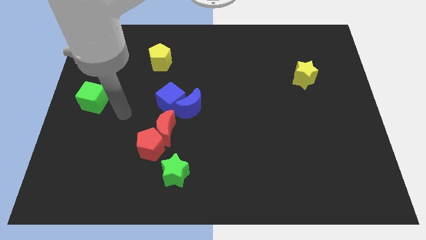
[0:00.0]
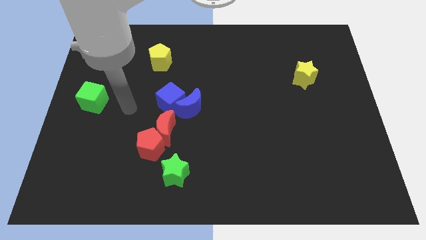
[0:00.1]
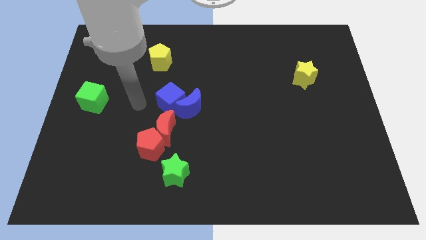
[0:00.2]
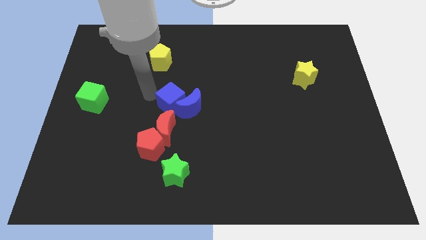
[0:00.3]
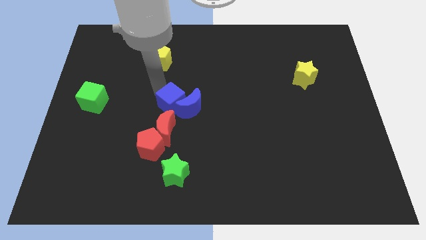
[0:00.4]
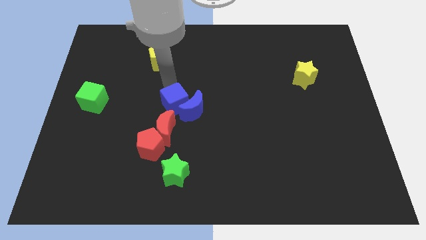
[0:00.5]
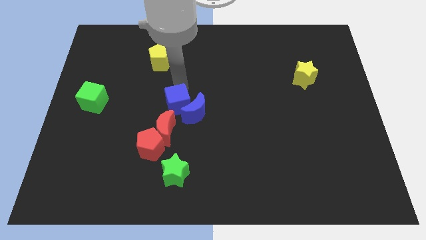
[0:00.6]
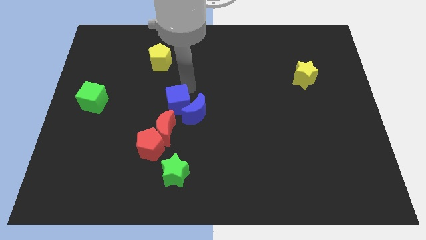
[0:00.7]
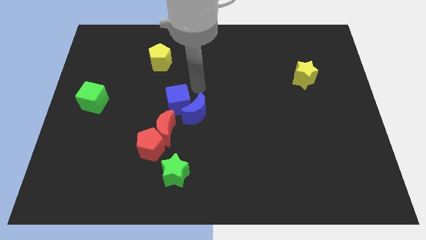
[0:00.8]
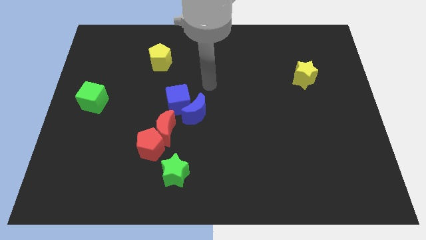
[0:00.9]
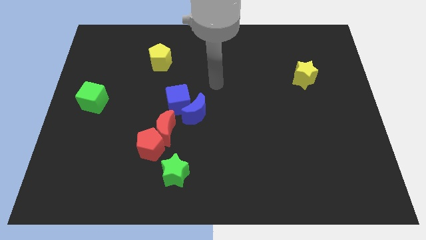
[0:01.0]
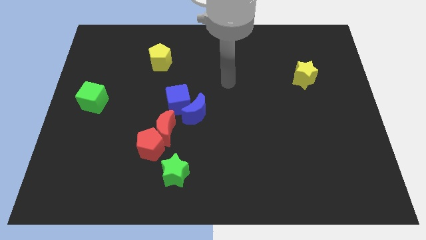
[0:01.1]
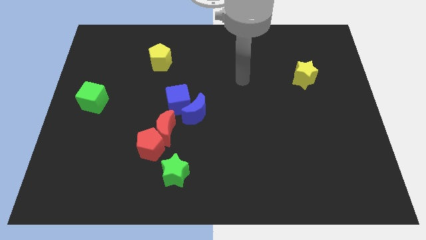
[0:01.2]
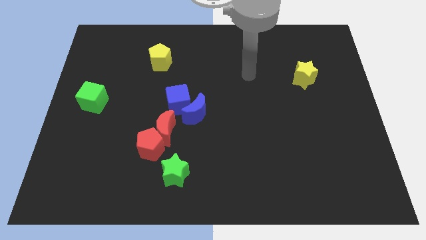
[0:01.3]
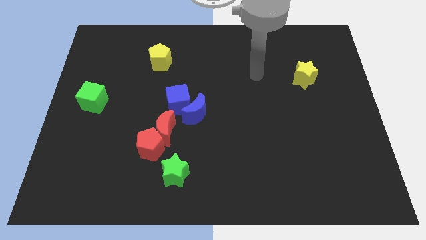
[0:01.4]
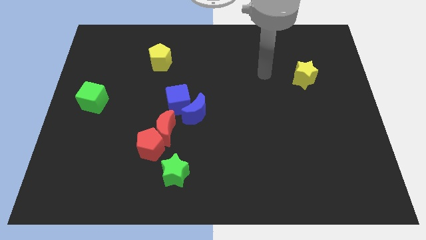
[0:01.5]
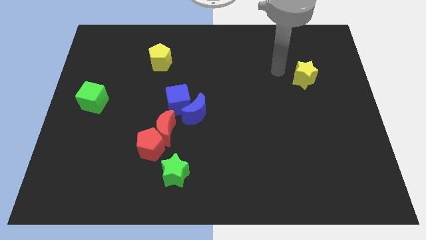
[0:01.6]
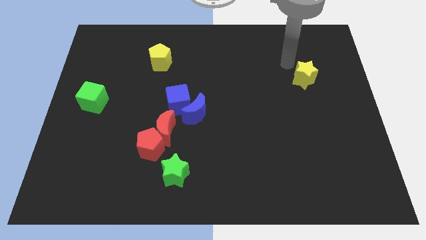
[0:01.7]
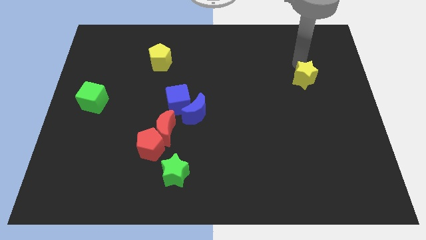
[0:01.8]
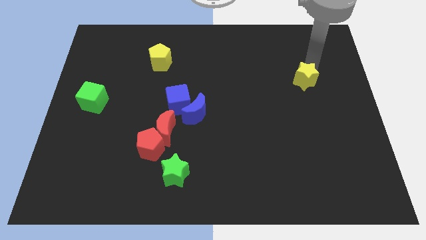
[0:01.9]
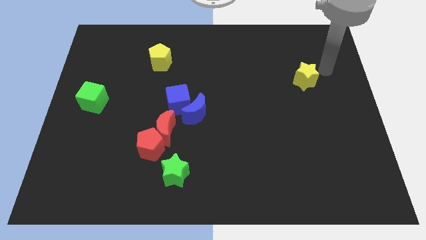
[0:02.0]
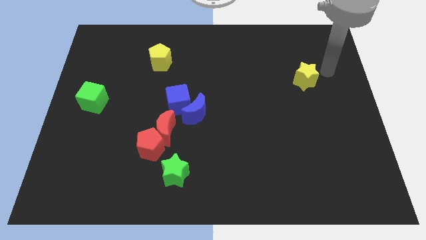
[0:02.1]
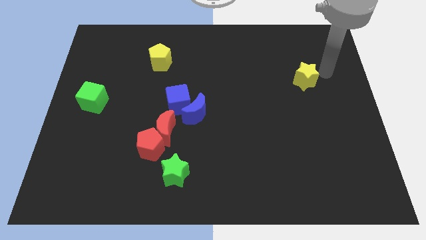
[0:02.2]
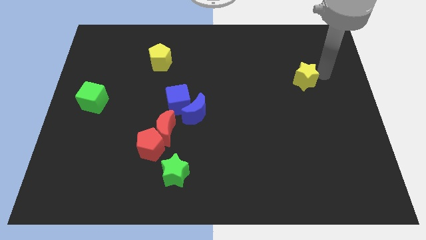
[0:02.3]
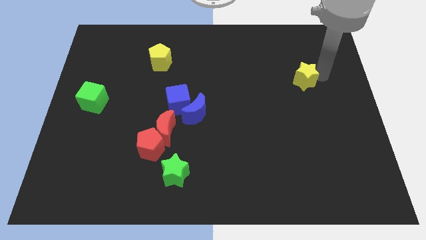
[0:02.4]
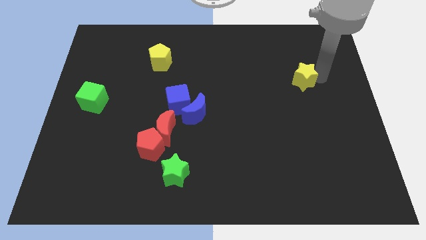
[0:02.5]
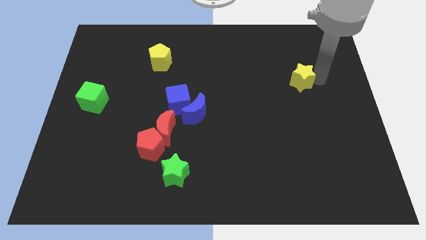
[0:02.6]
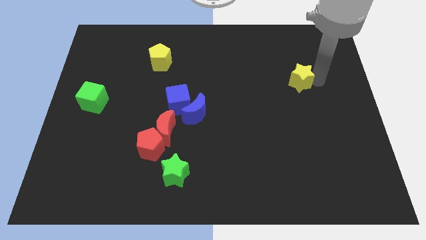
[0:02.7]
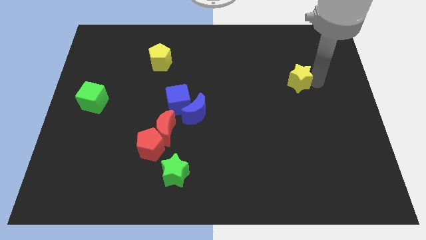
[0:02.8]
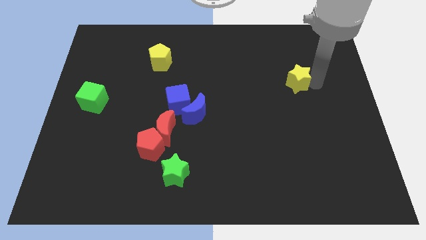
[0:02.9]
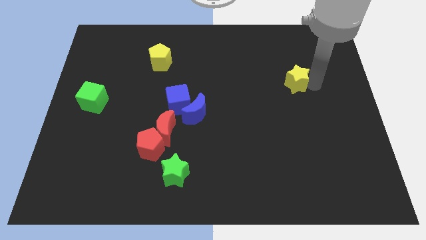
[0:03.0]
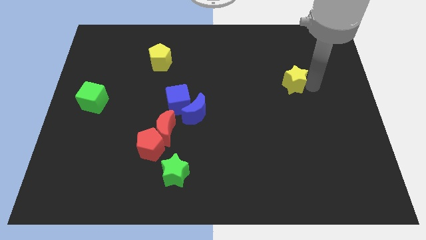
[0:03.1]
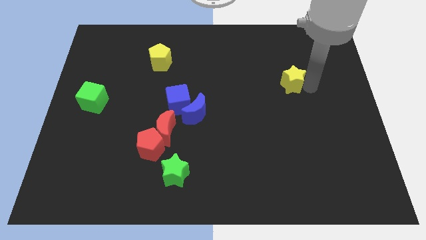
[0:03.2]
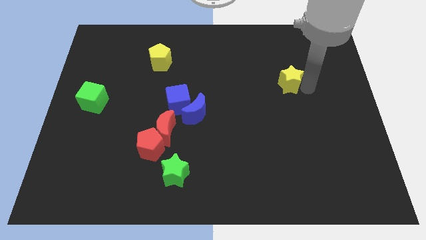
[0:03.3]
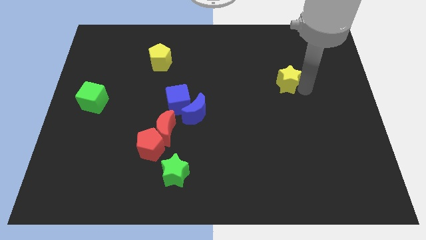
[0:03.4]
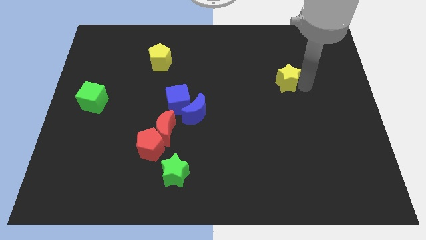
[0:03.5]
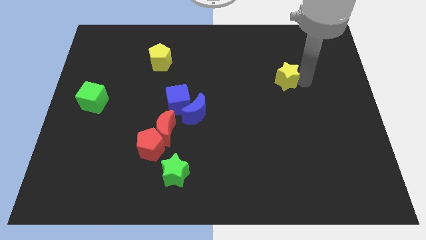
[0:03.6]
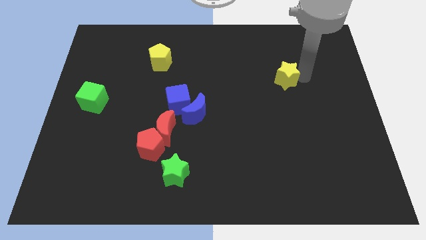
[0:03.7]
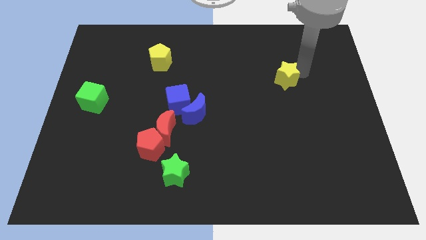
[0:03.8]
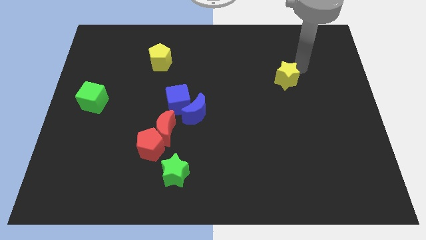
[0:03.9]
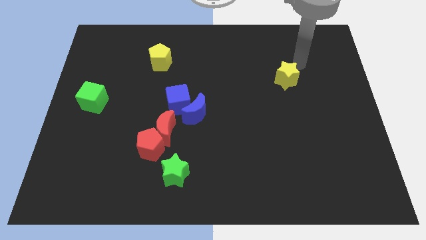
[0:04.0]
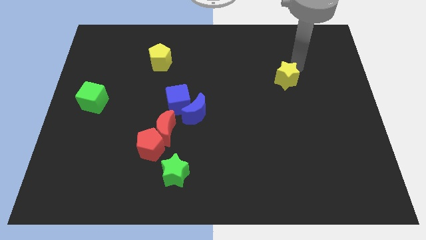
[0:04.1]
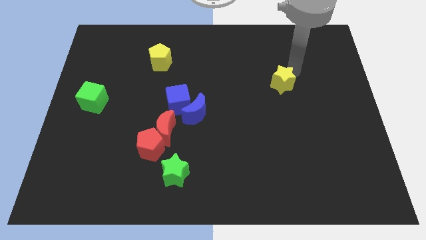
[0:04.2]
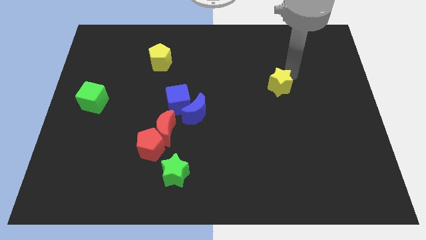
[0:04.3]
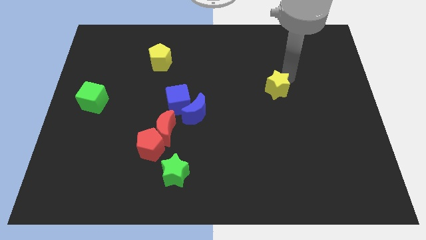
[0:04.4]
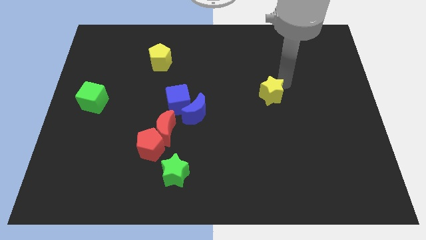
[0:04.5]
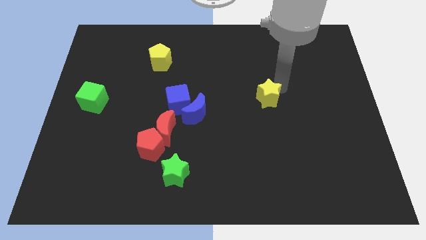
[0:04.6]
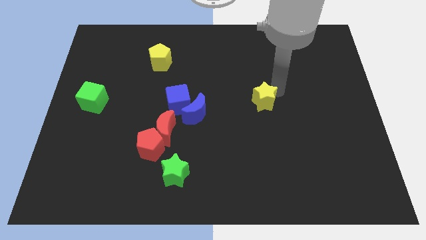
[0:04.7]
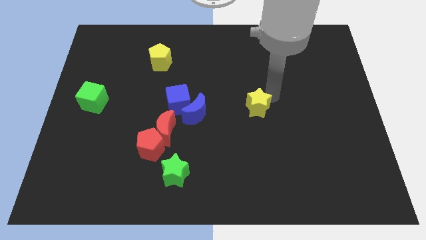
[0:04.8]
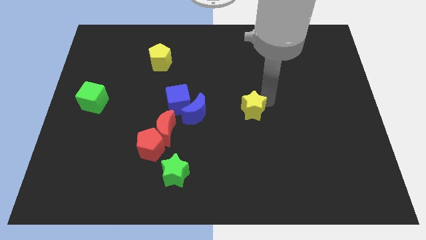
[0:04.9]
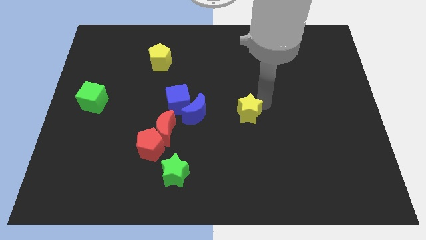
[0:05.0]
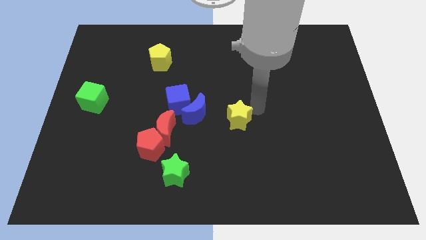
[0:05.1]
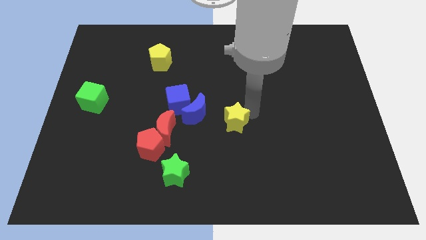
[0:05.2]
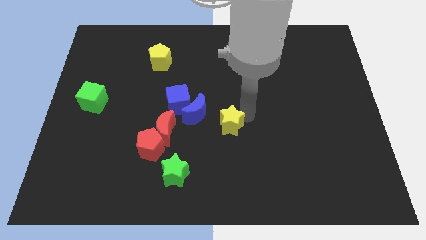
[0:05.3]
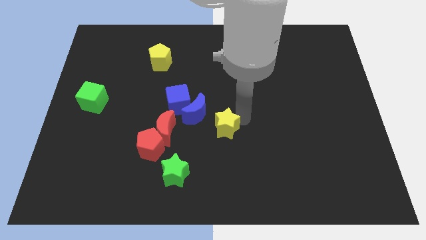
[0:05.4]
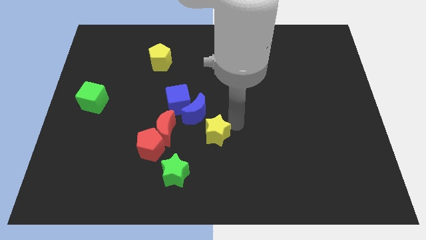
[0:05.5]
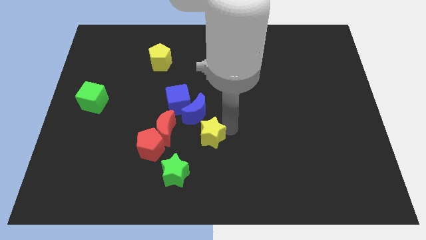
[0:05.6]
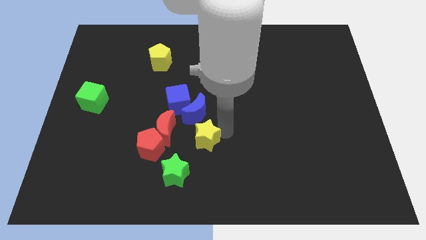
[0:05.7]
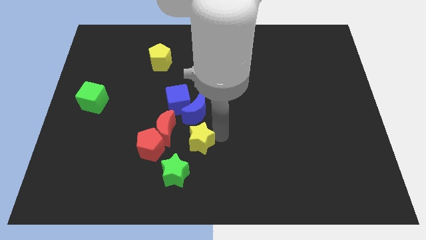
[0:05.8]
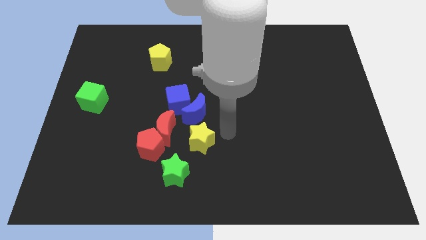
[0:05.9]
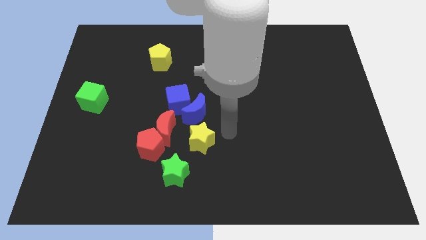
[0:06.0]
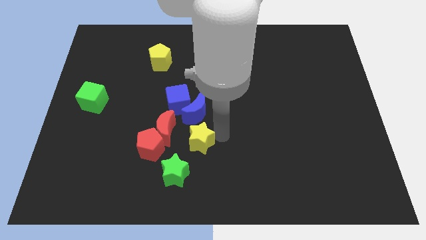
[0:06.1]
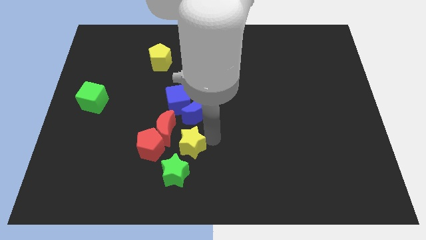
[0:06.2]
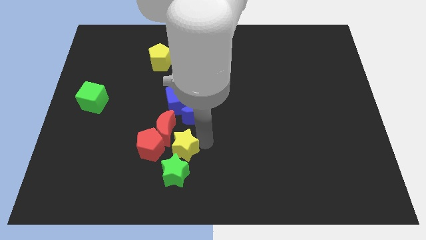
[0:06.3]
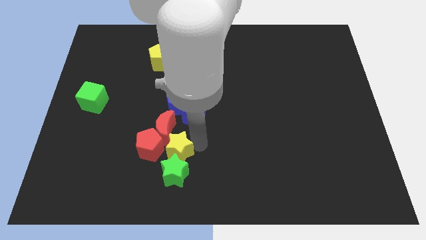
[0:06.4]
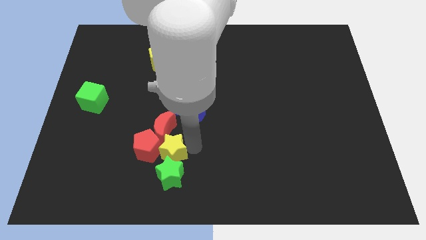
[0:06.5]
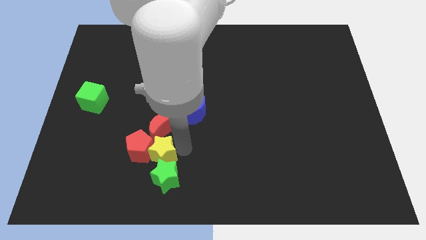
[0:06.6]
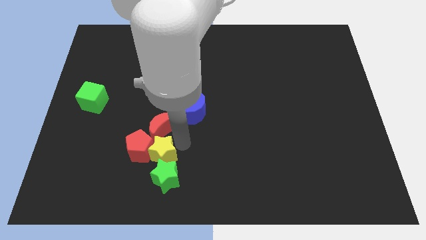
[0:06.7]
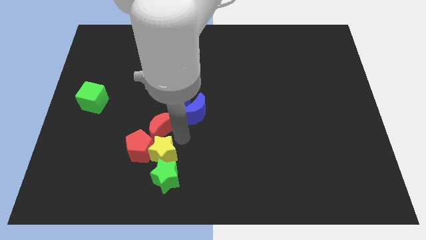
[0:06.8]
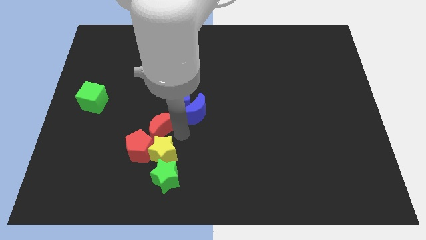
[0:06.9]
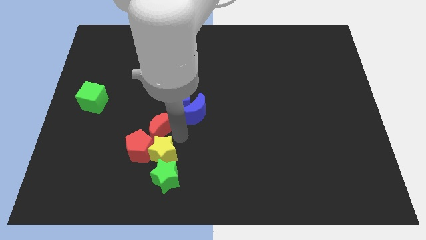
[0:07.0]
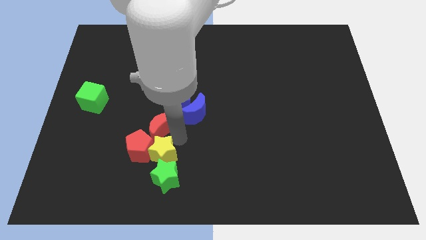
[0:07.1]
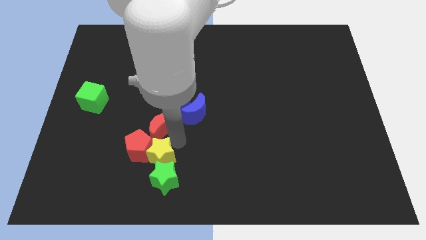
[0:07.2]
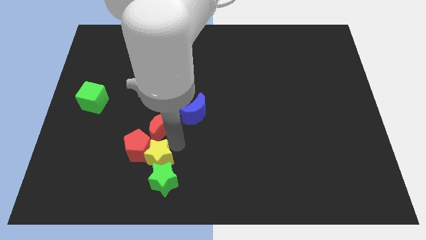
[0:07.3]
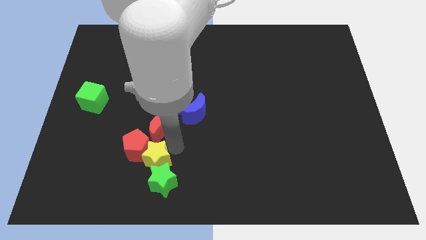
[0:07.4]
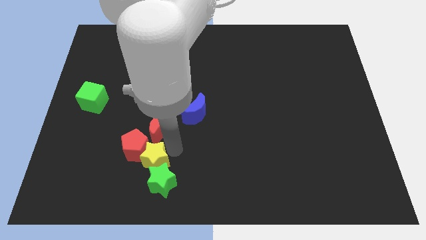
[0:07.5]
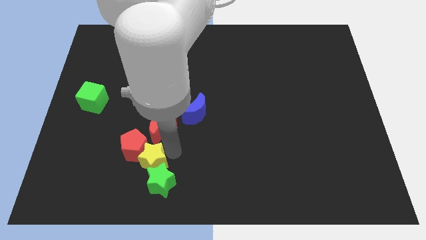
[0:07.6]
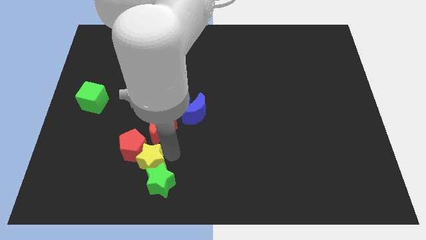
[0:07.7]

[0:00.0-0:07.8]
move the yellow star to the bottom left side of the red moon
